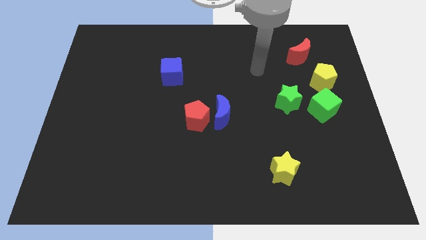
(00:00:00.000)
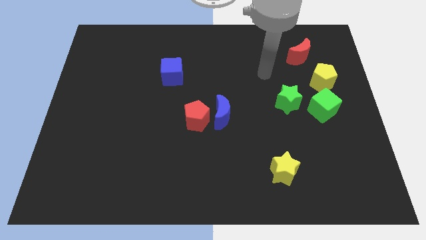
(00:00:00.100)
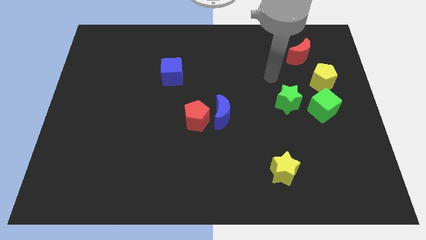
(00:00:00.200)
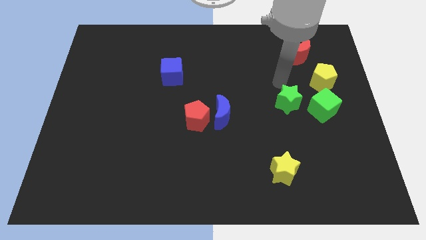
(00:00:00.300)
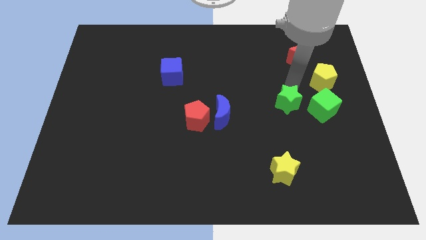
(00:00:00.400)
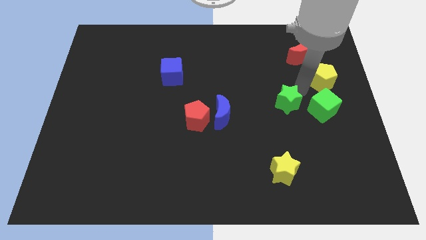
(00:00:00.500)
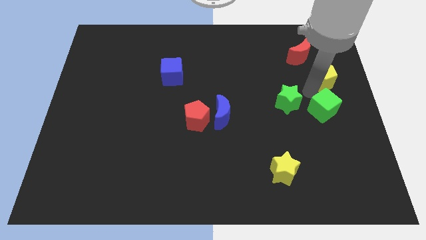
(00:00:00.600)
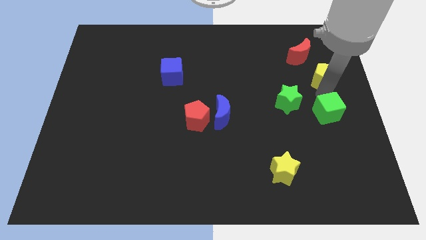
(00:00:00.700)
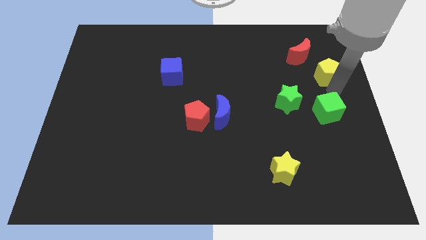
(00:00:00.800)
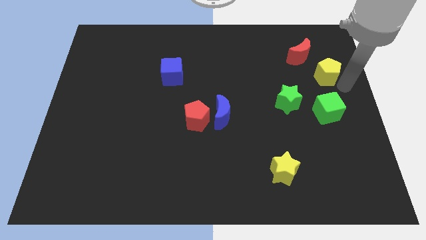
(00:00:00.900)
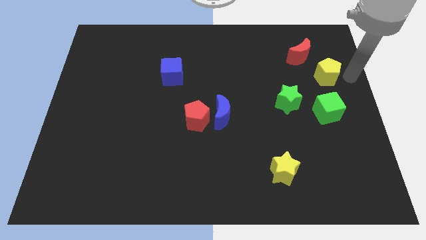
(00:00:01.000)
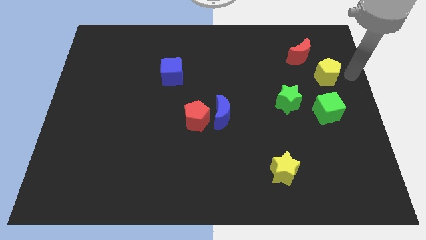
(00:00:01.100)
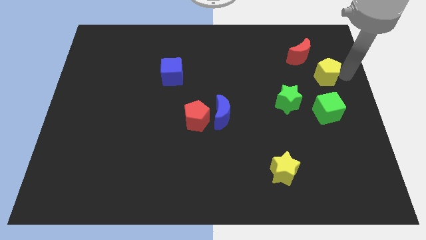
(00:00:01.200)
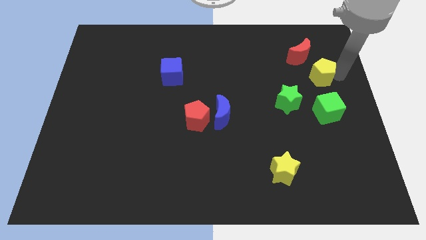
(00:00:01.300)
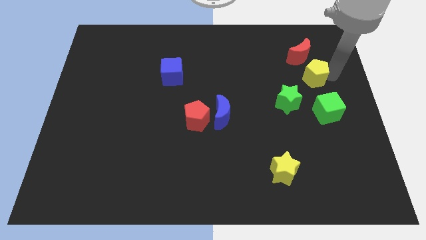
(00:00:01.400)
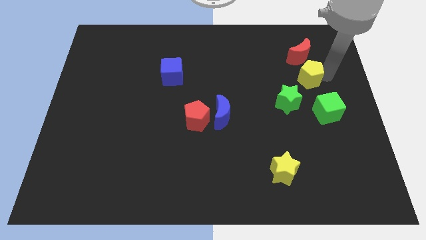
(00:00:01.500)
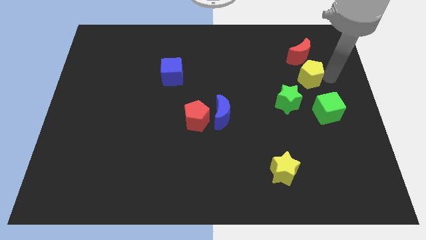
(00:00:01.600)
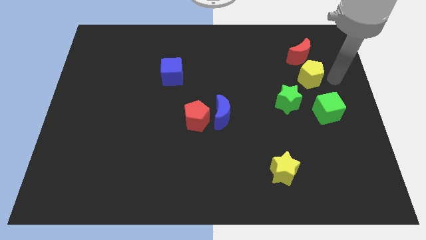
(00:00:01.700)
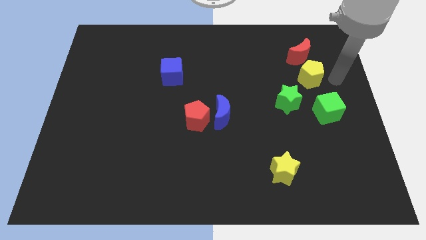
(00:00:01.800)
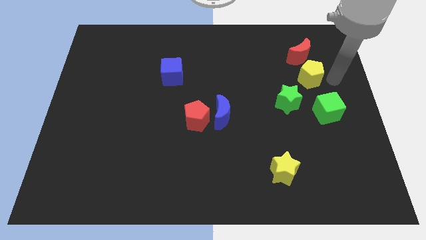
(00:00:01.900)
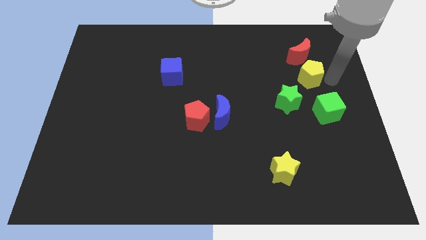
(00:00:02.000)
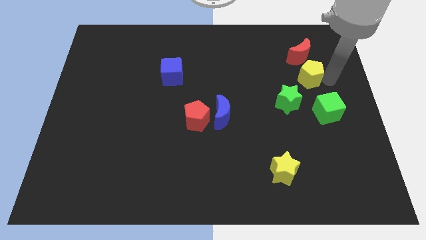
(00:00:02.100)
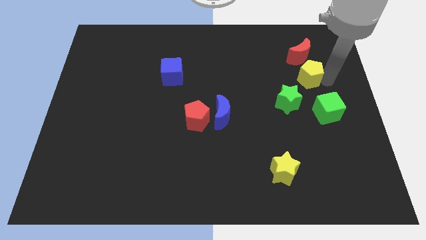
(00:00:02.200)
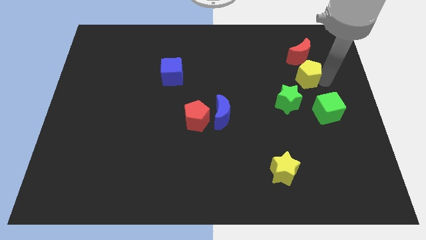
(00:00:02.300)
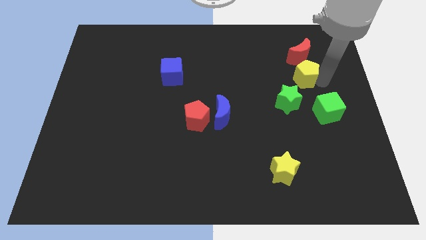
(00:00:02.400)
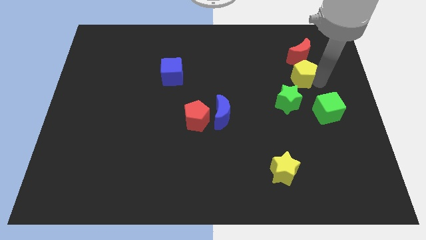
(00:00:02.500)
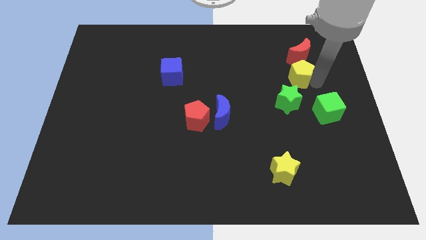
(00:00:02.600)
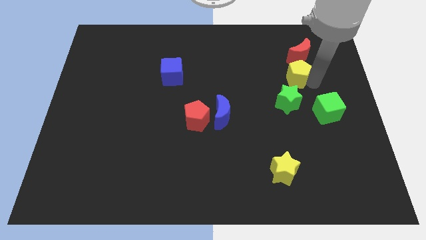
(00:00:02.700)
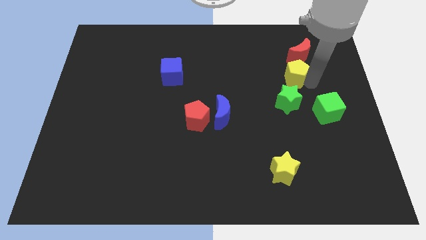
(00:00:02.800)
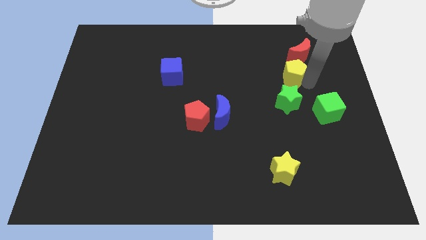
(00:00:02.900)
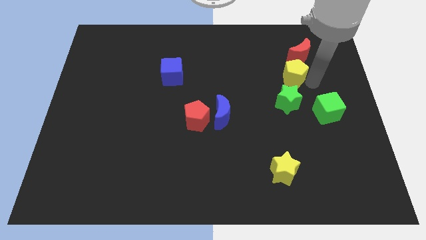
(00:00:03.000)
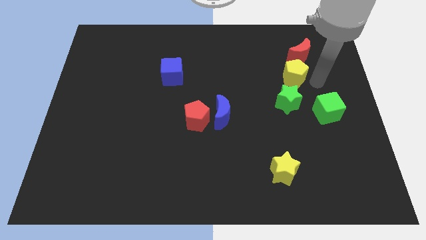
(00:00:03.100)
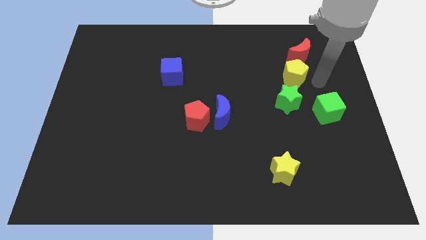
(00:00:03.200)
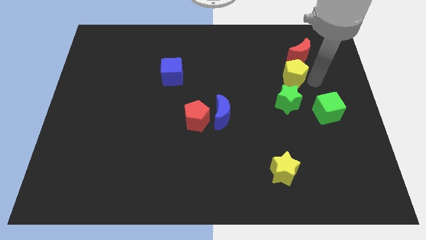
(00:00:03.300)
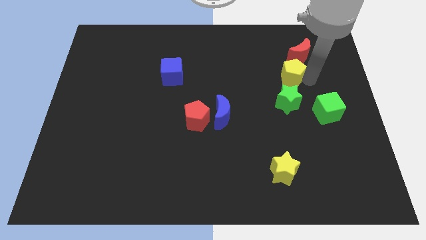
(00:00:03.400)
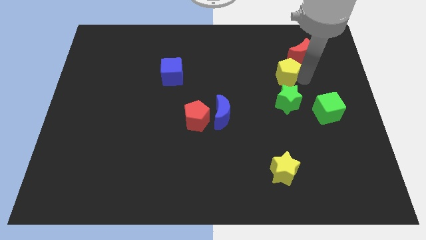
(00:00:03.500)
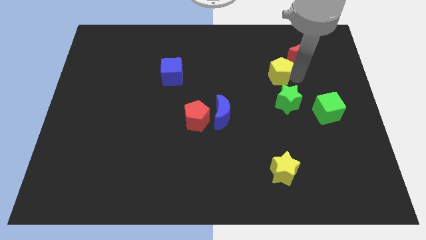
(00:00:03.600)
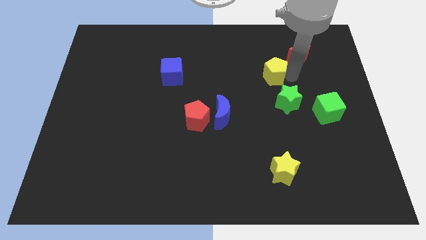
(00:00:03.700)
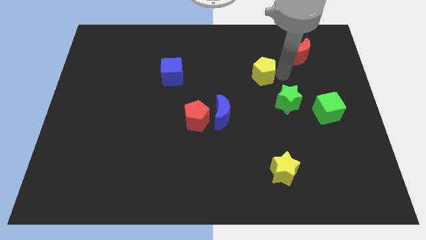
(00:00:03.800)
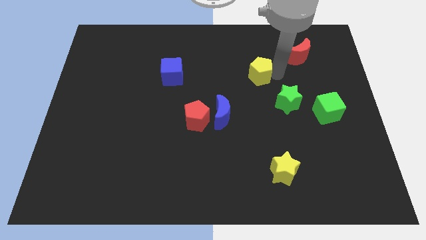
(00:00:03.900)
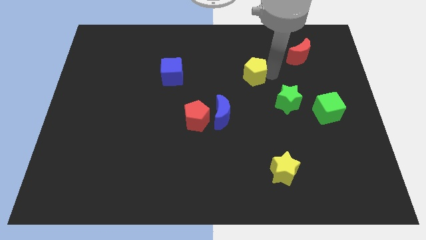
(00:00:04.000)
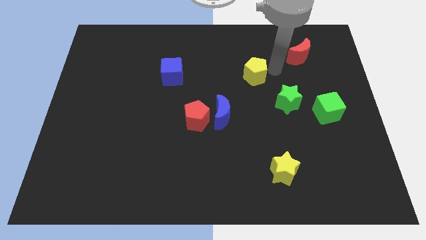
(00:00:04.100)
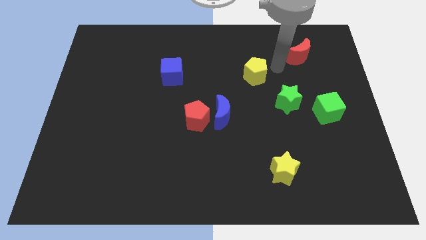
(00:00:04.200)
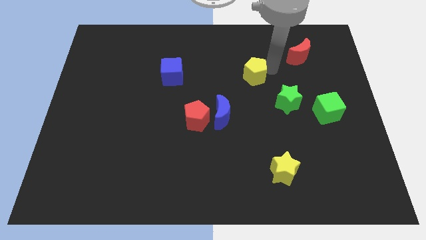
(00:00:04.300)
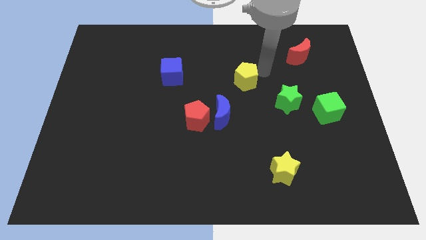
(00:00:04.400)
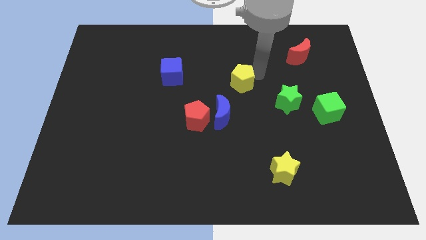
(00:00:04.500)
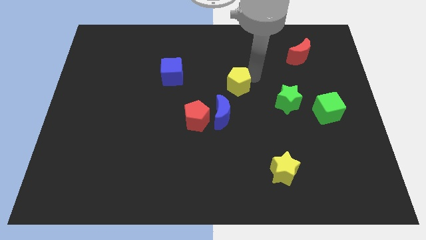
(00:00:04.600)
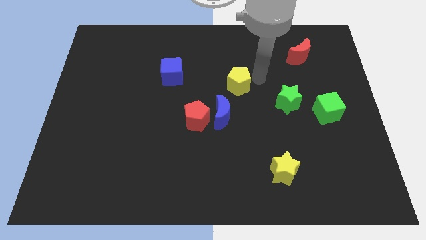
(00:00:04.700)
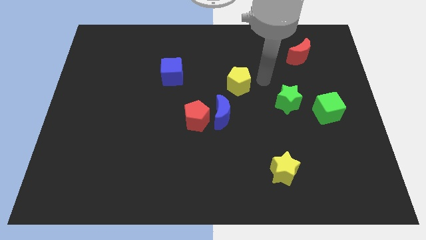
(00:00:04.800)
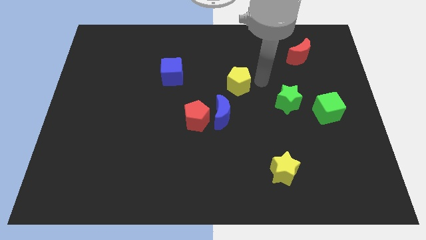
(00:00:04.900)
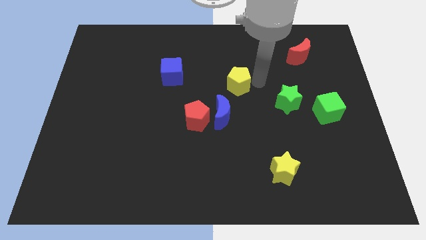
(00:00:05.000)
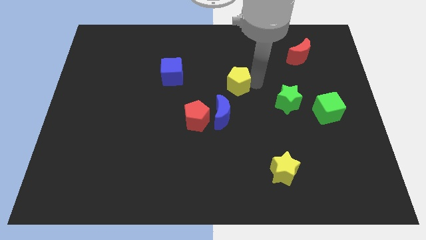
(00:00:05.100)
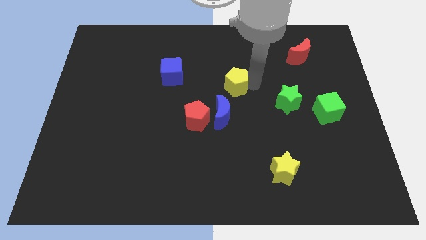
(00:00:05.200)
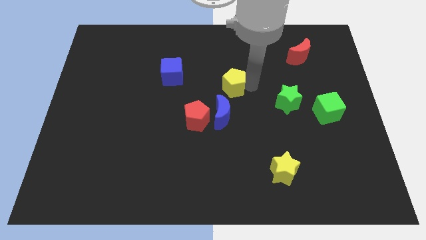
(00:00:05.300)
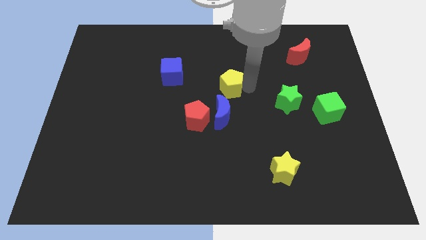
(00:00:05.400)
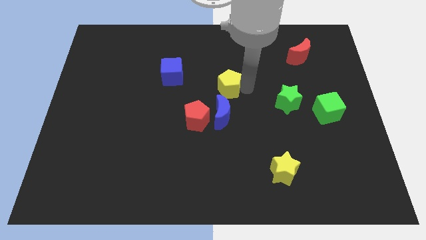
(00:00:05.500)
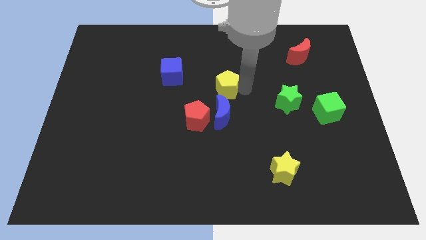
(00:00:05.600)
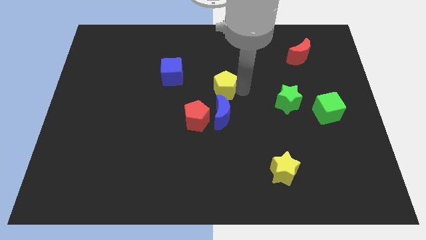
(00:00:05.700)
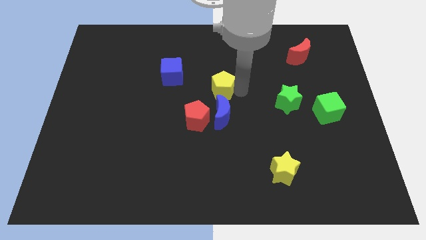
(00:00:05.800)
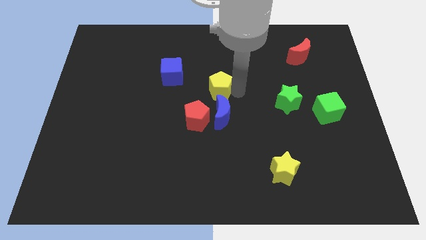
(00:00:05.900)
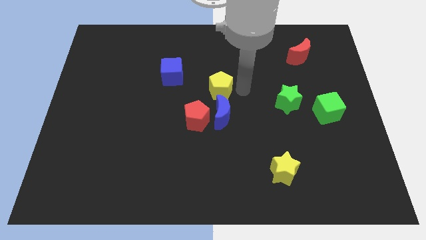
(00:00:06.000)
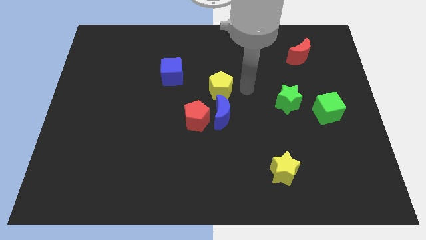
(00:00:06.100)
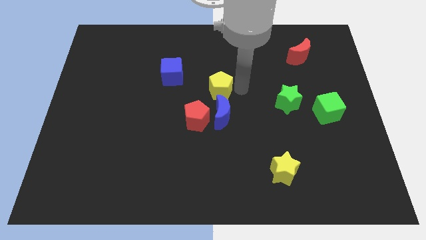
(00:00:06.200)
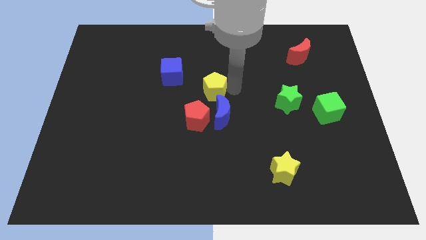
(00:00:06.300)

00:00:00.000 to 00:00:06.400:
slide the yellow pentagon to the bottom right side of the blue cube
